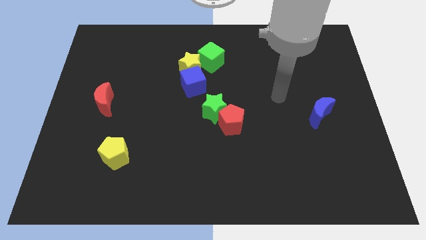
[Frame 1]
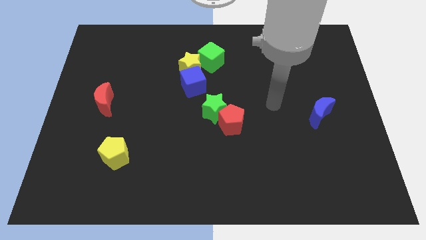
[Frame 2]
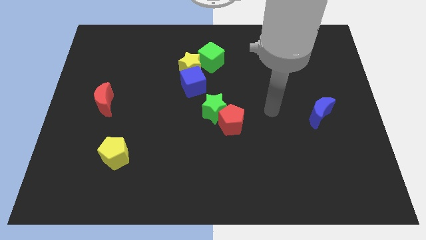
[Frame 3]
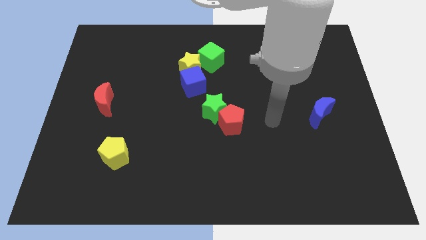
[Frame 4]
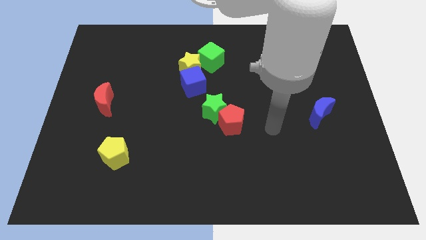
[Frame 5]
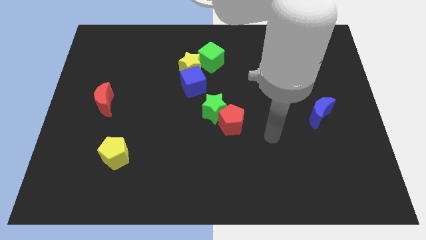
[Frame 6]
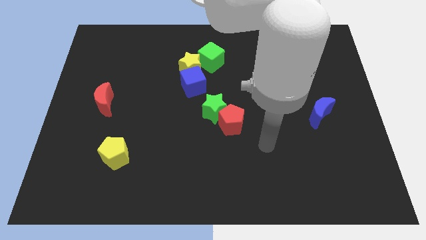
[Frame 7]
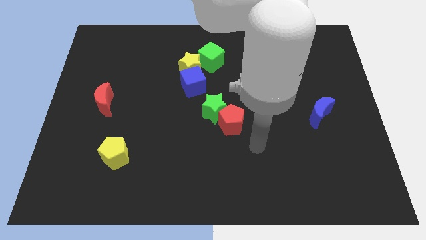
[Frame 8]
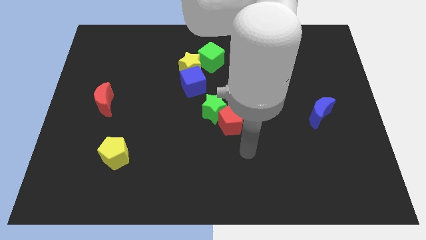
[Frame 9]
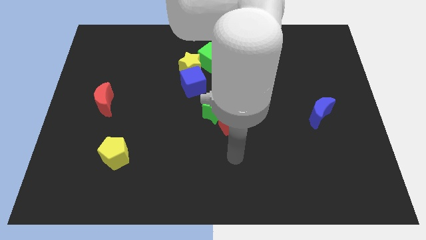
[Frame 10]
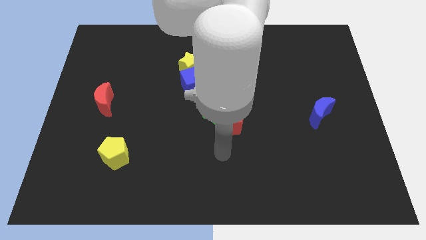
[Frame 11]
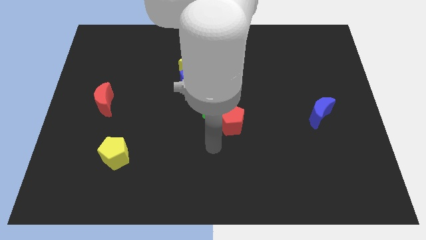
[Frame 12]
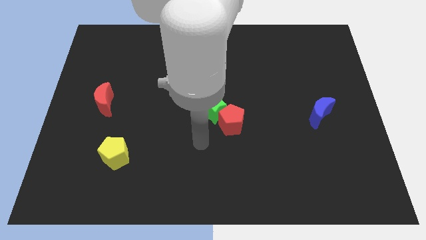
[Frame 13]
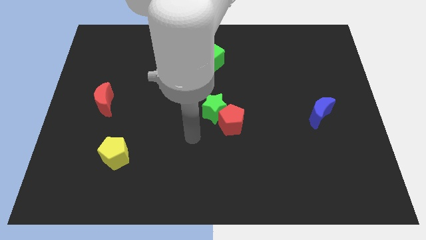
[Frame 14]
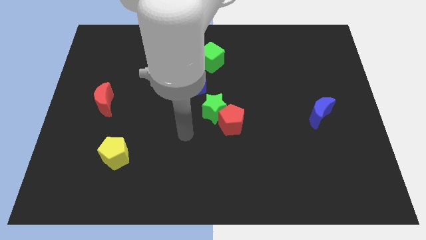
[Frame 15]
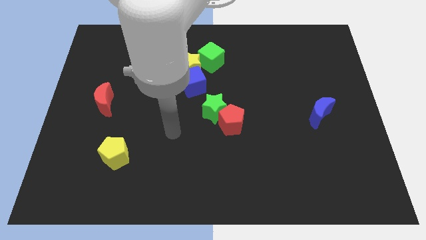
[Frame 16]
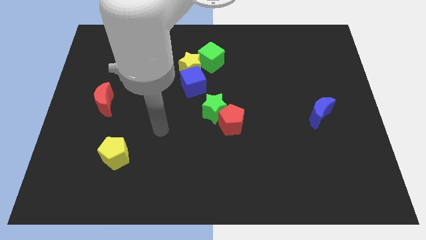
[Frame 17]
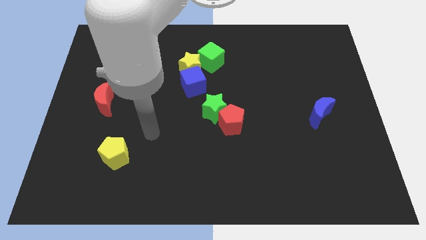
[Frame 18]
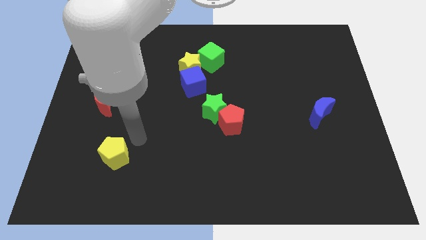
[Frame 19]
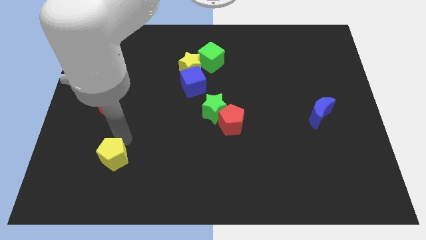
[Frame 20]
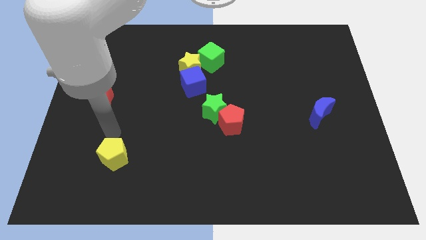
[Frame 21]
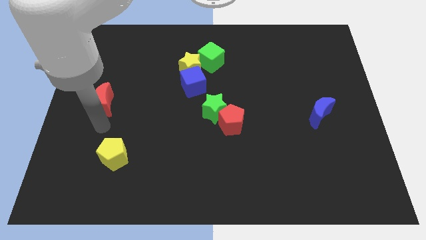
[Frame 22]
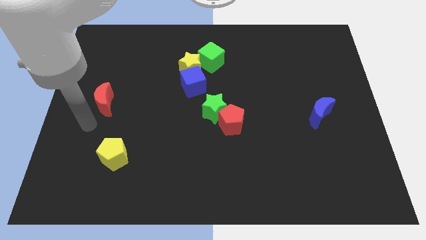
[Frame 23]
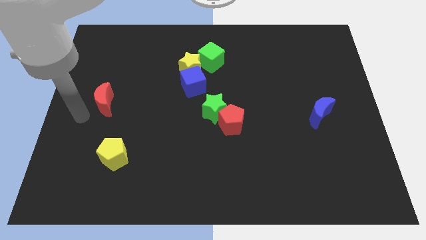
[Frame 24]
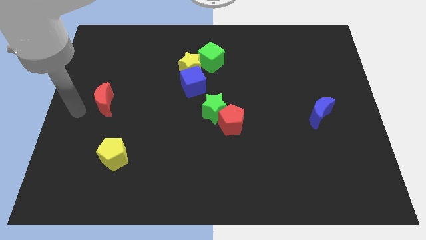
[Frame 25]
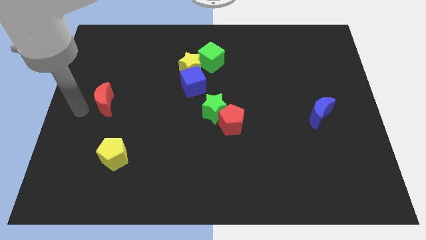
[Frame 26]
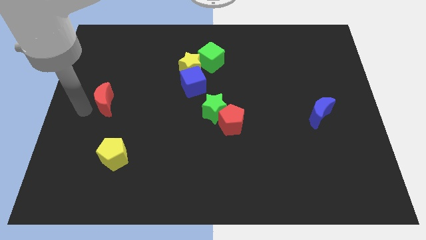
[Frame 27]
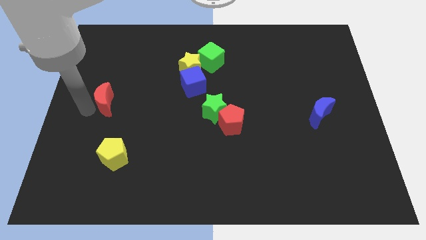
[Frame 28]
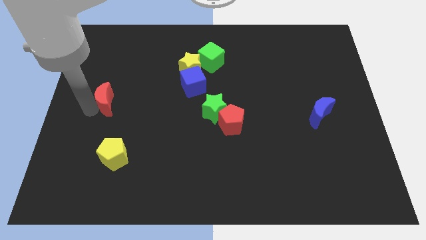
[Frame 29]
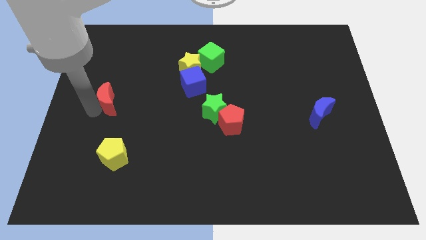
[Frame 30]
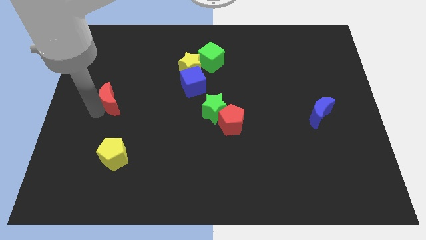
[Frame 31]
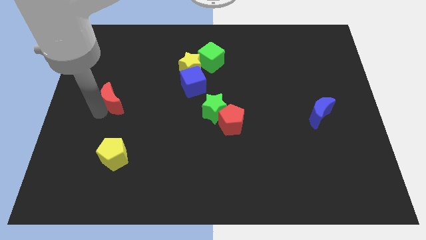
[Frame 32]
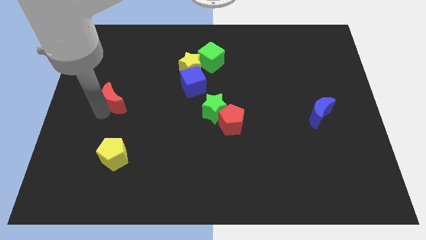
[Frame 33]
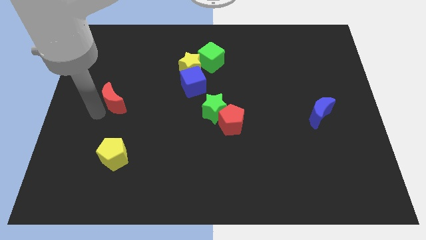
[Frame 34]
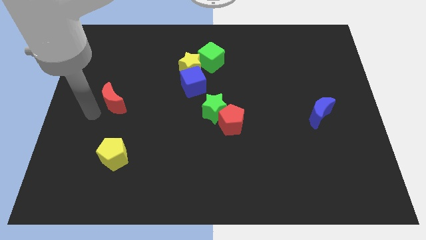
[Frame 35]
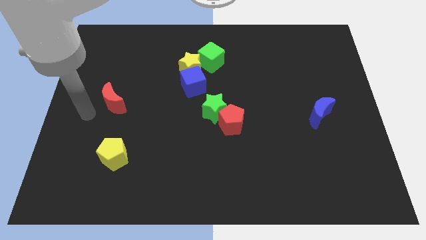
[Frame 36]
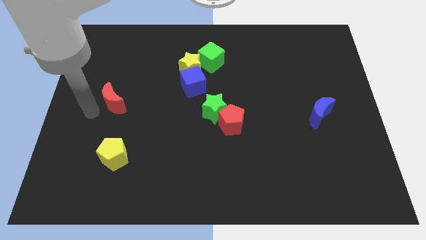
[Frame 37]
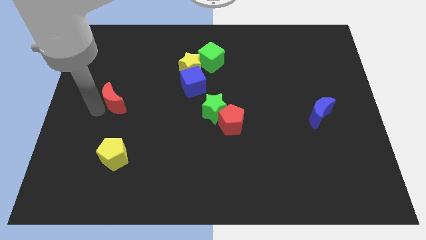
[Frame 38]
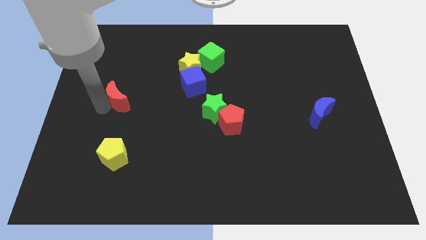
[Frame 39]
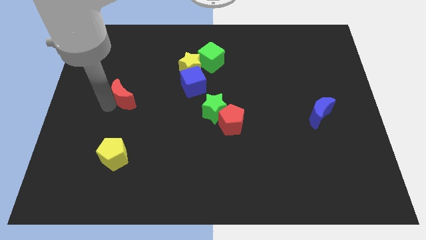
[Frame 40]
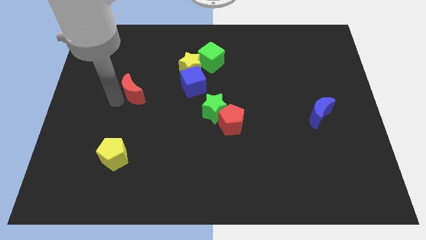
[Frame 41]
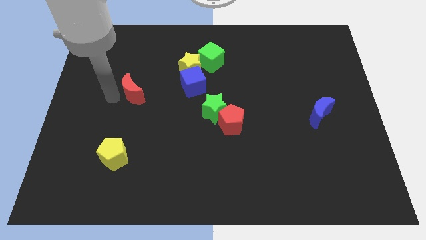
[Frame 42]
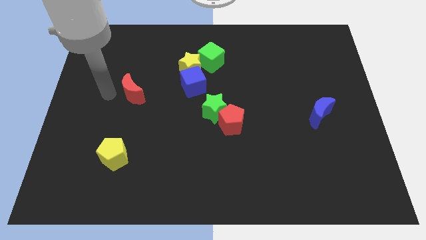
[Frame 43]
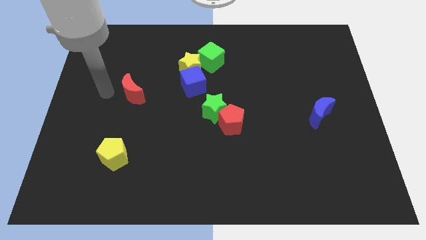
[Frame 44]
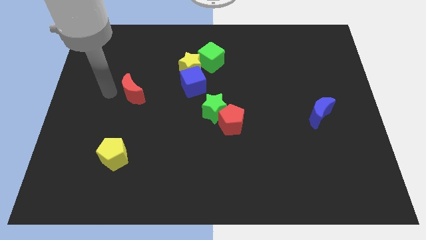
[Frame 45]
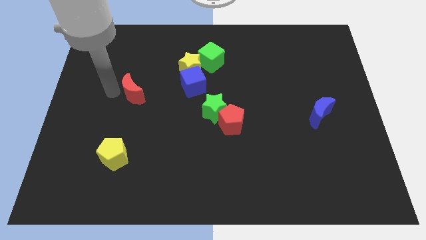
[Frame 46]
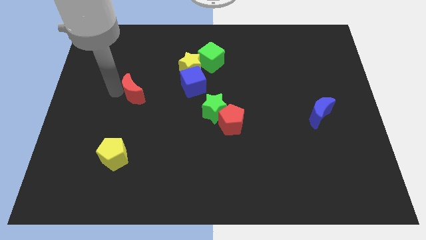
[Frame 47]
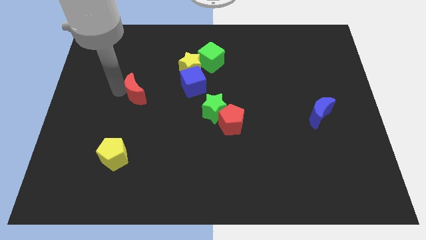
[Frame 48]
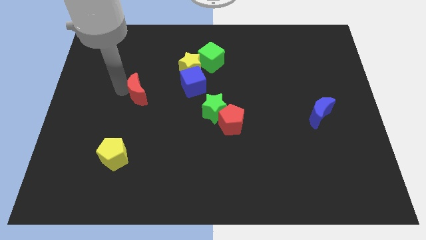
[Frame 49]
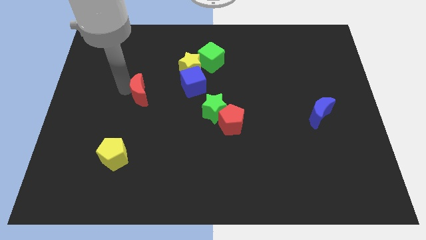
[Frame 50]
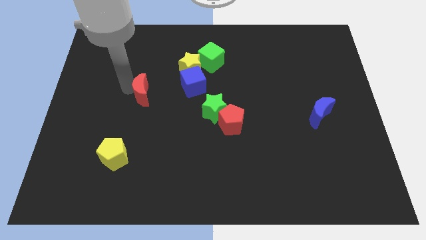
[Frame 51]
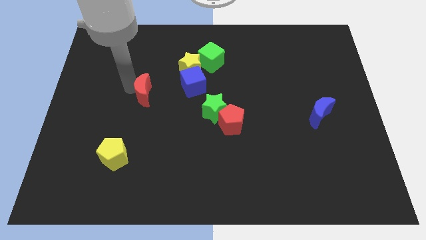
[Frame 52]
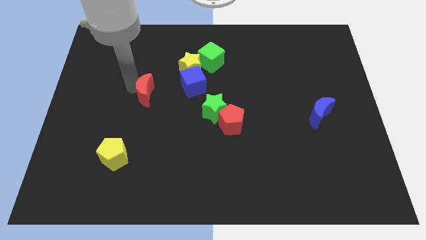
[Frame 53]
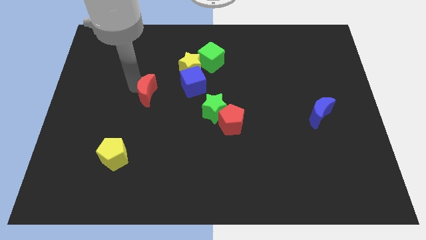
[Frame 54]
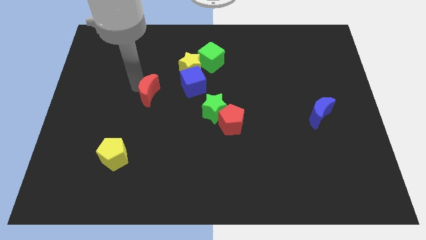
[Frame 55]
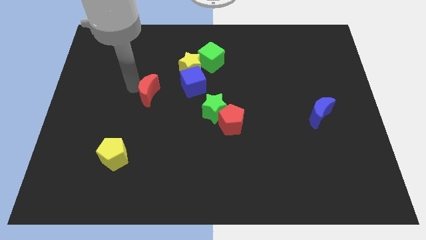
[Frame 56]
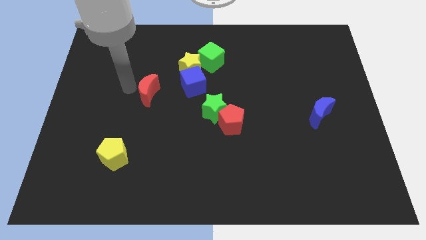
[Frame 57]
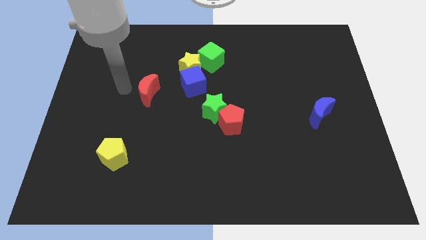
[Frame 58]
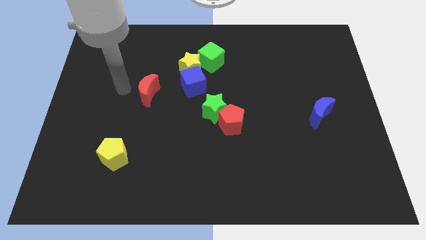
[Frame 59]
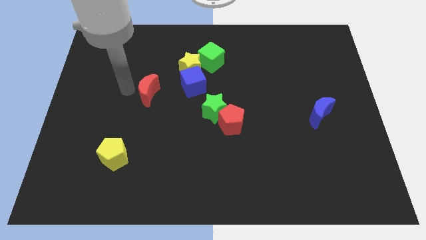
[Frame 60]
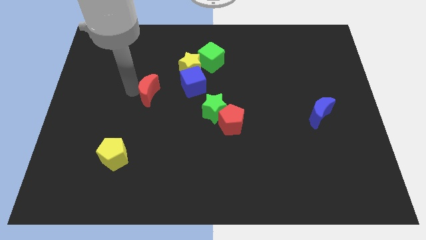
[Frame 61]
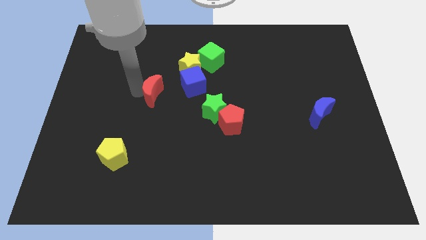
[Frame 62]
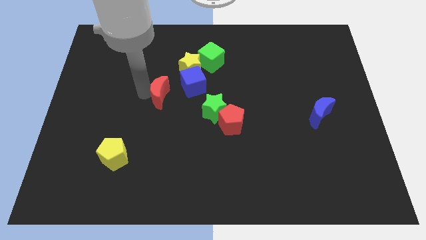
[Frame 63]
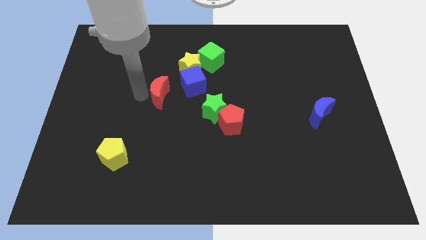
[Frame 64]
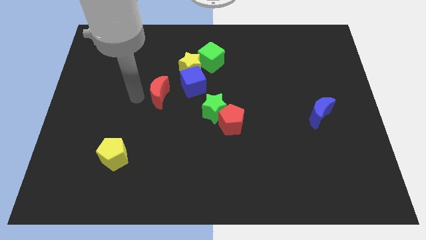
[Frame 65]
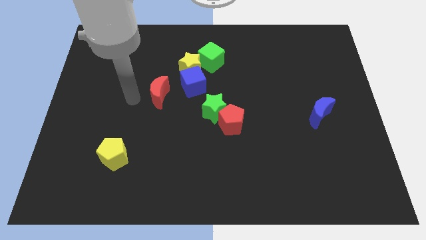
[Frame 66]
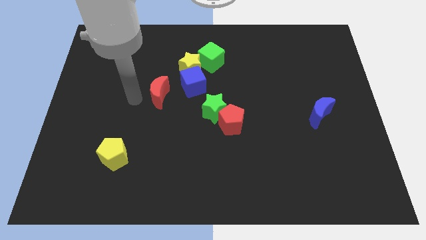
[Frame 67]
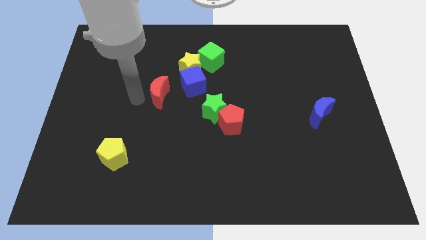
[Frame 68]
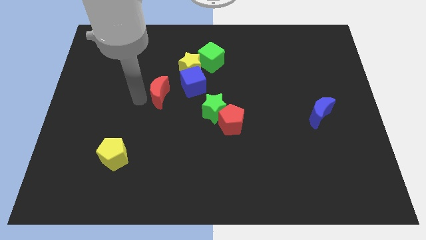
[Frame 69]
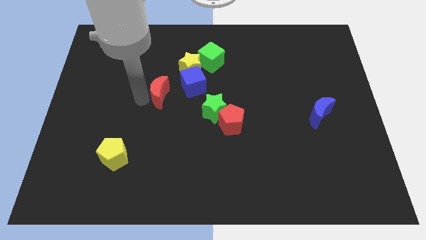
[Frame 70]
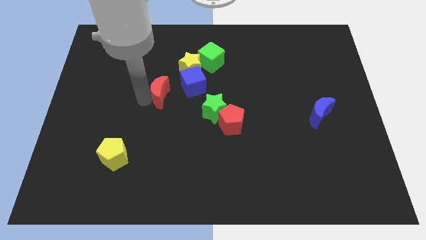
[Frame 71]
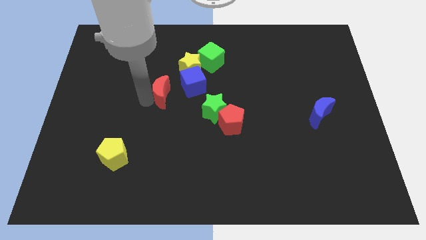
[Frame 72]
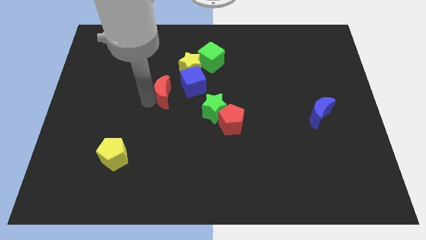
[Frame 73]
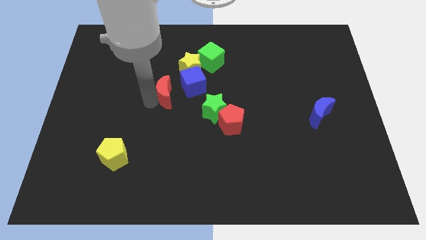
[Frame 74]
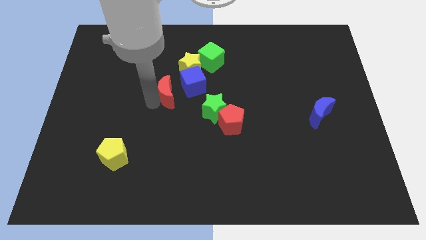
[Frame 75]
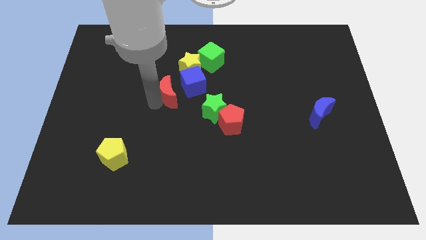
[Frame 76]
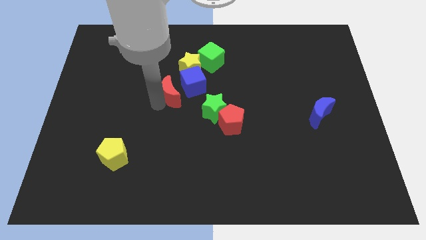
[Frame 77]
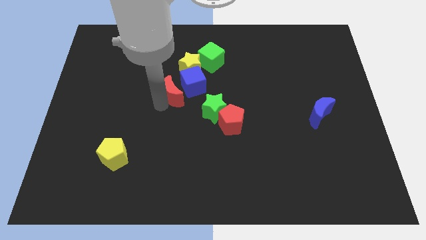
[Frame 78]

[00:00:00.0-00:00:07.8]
push the red moon to the blue cube
